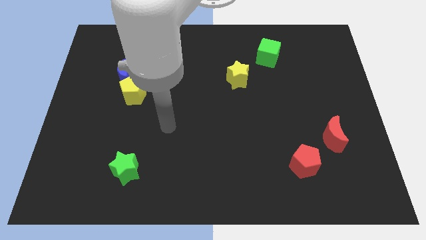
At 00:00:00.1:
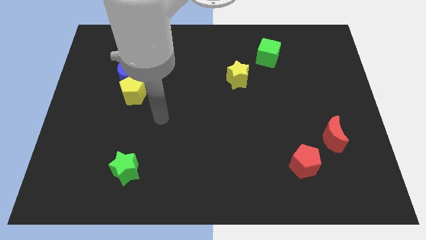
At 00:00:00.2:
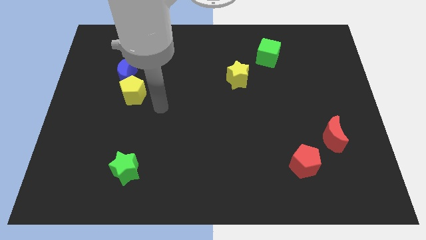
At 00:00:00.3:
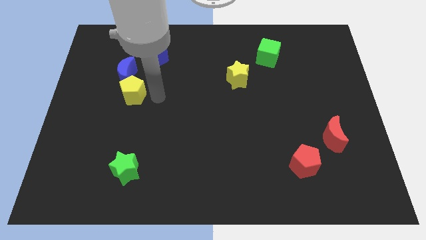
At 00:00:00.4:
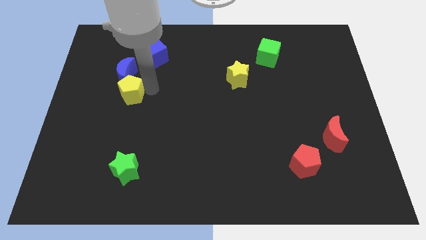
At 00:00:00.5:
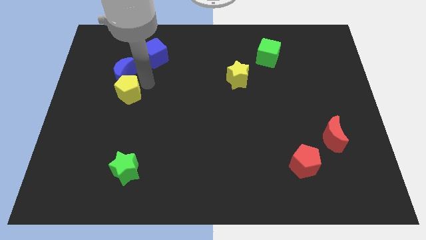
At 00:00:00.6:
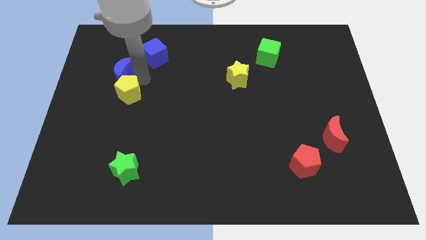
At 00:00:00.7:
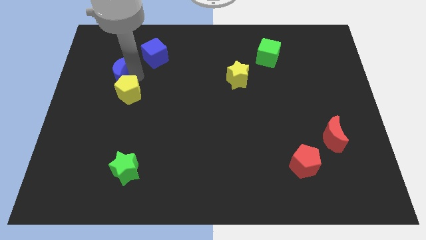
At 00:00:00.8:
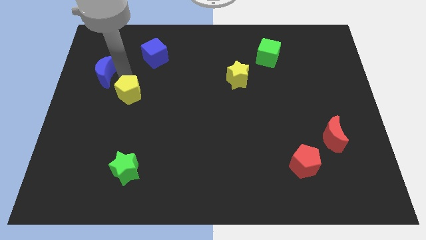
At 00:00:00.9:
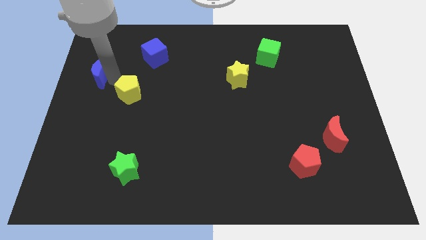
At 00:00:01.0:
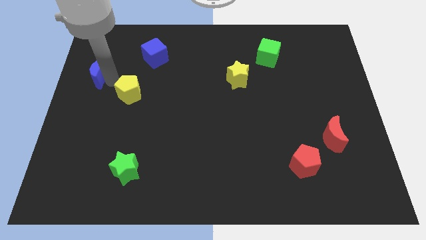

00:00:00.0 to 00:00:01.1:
separate the yellow pentagon from the blue moon

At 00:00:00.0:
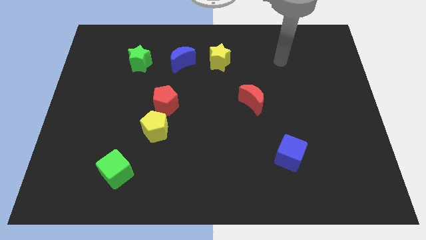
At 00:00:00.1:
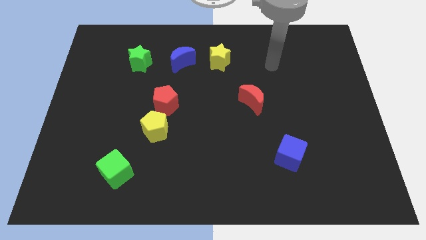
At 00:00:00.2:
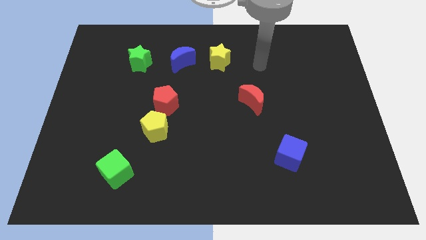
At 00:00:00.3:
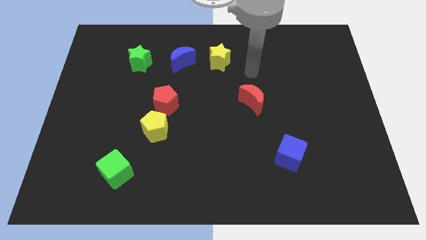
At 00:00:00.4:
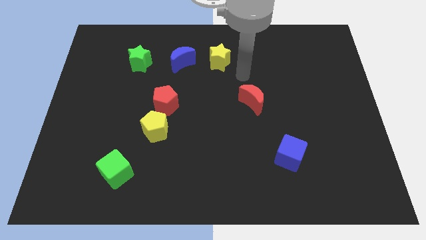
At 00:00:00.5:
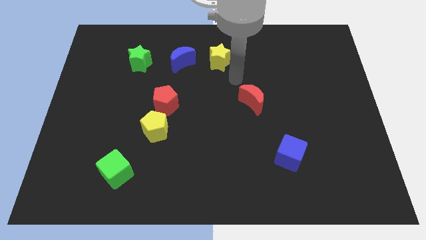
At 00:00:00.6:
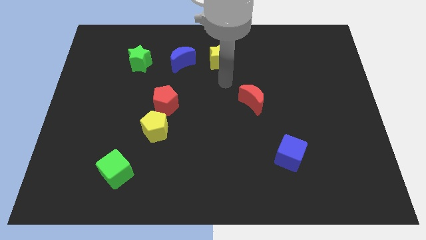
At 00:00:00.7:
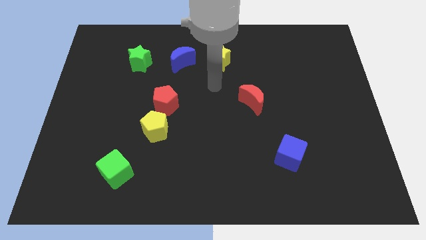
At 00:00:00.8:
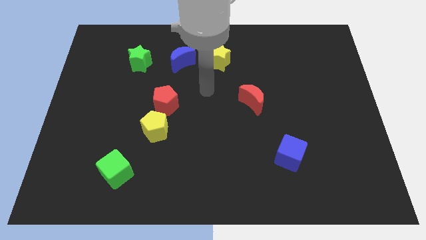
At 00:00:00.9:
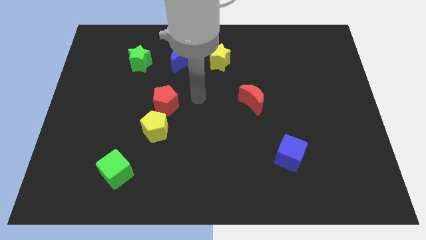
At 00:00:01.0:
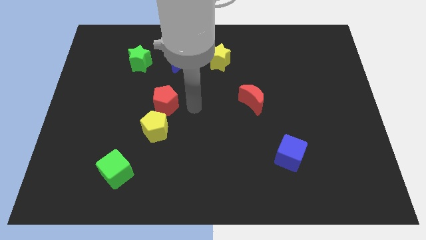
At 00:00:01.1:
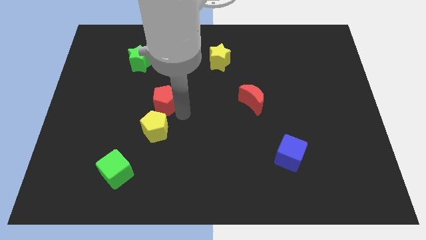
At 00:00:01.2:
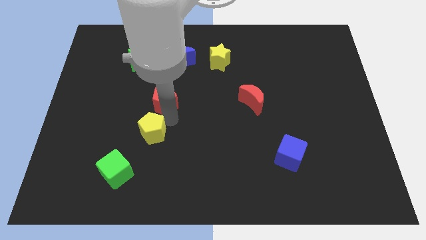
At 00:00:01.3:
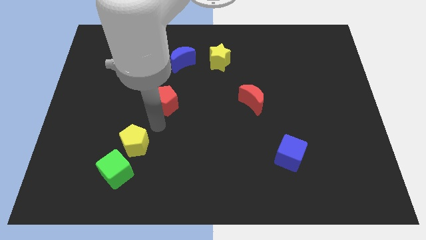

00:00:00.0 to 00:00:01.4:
separate the red pentagon from the yellow pentagon

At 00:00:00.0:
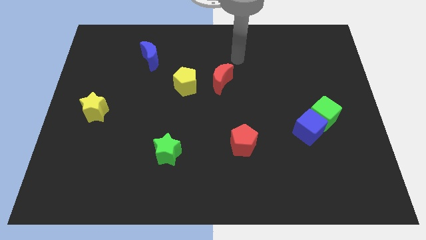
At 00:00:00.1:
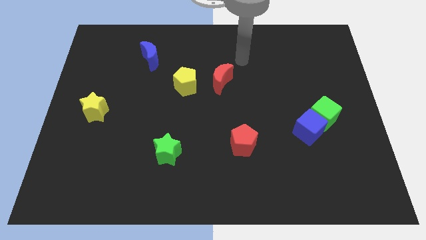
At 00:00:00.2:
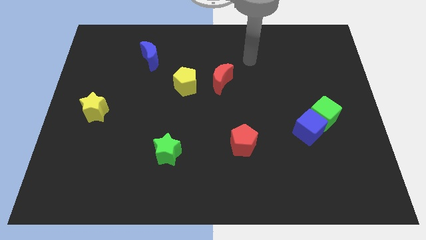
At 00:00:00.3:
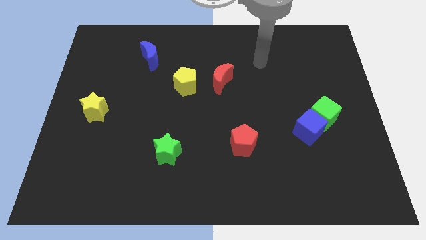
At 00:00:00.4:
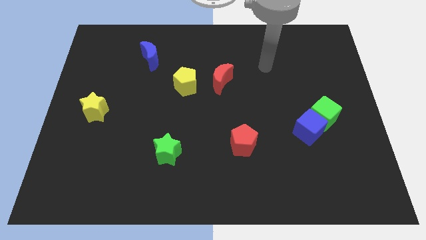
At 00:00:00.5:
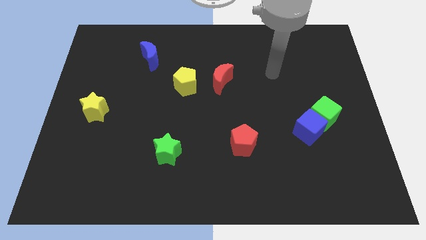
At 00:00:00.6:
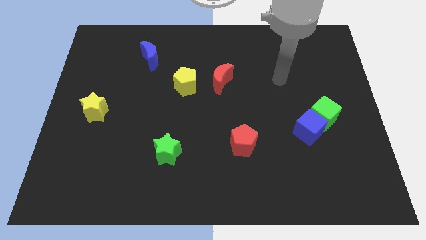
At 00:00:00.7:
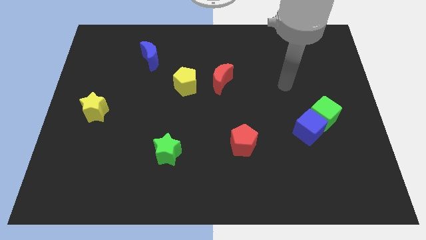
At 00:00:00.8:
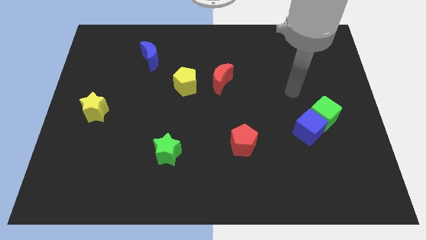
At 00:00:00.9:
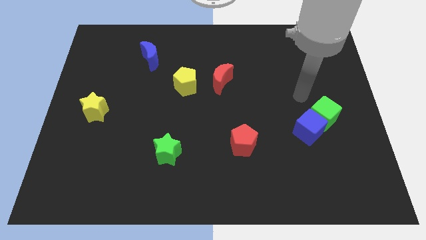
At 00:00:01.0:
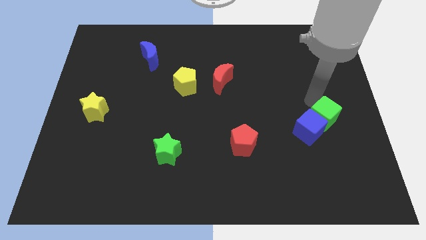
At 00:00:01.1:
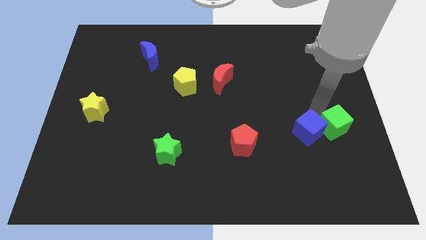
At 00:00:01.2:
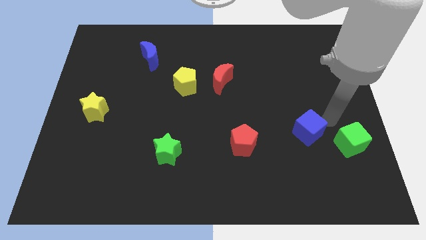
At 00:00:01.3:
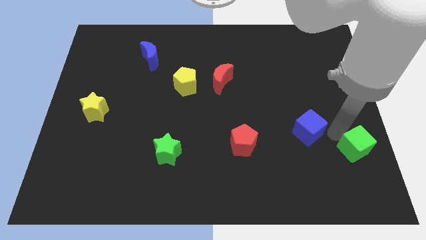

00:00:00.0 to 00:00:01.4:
pull the blue cube apart from the green cube

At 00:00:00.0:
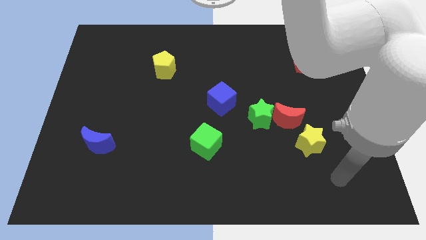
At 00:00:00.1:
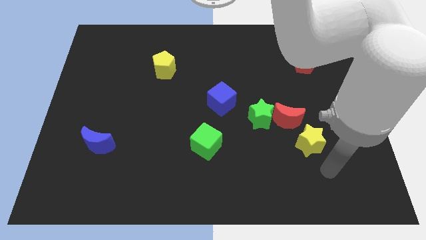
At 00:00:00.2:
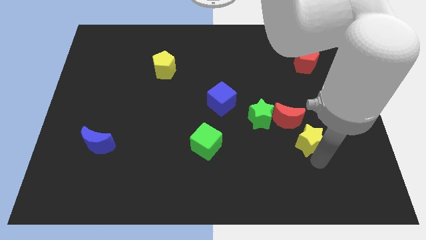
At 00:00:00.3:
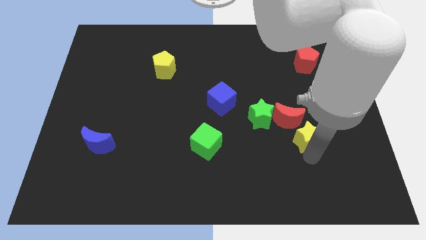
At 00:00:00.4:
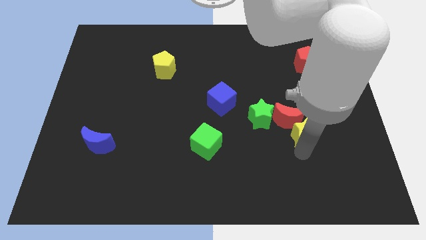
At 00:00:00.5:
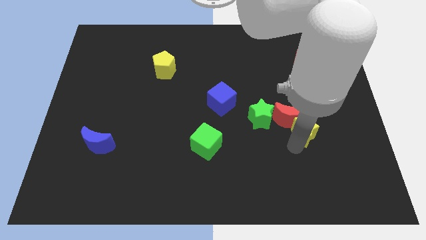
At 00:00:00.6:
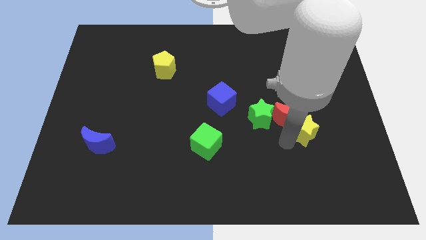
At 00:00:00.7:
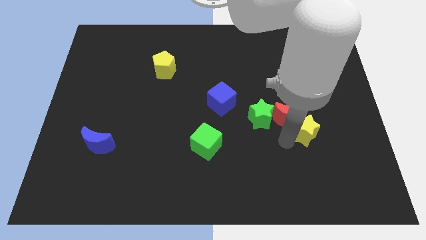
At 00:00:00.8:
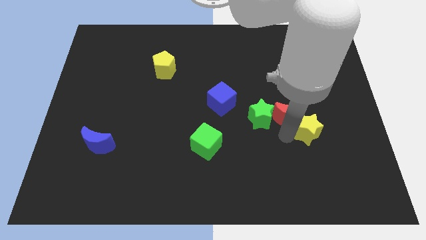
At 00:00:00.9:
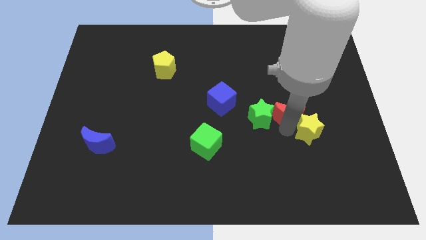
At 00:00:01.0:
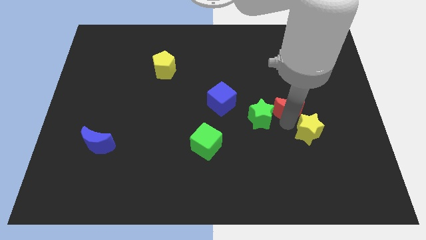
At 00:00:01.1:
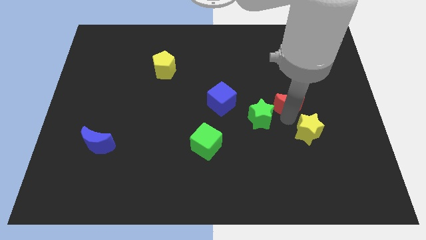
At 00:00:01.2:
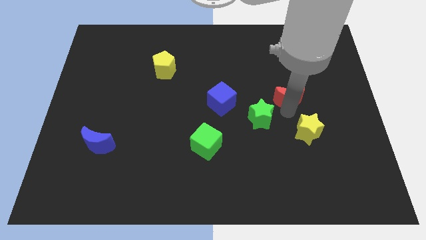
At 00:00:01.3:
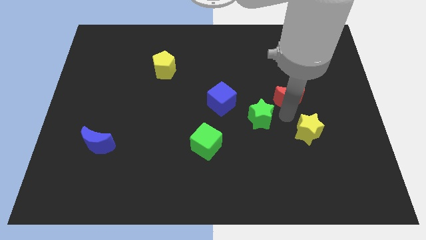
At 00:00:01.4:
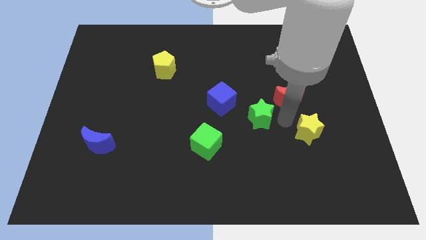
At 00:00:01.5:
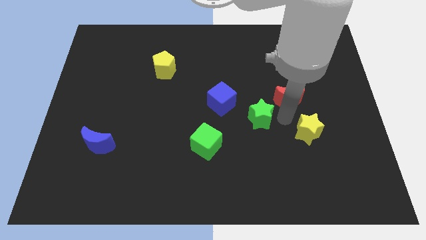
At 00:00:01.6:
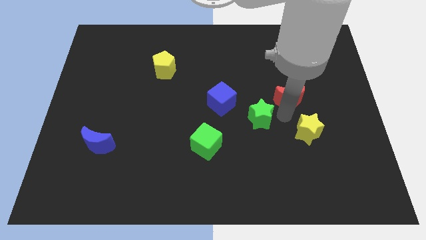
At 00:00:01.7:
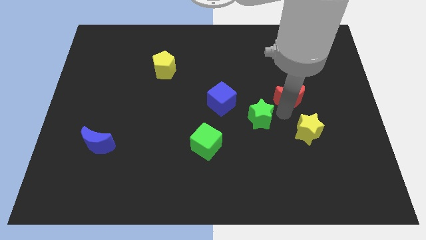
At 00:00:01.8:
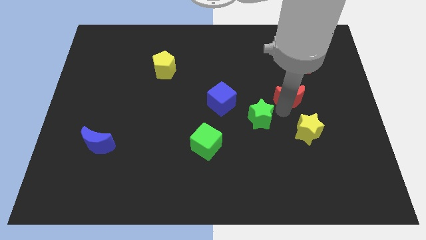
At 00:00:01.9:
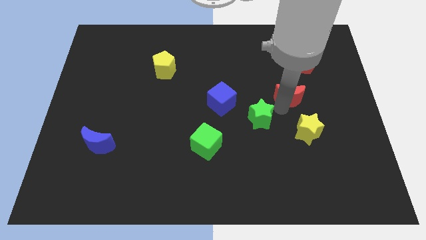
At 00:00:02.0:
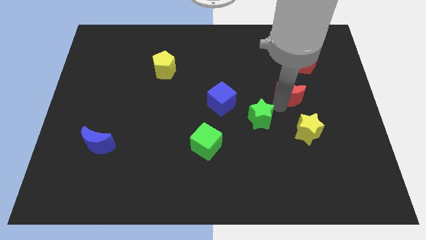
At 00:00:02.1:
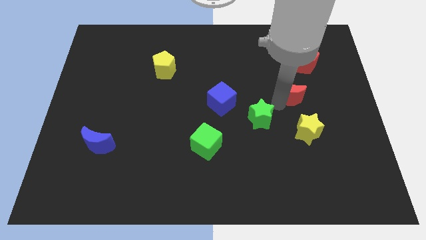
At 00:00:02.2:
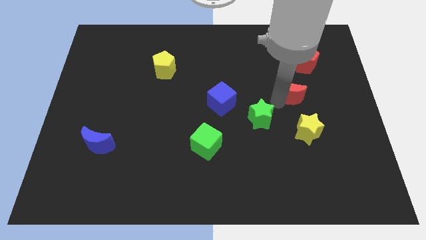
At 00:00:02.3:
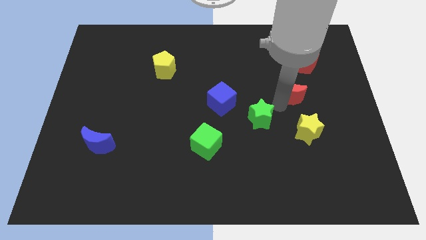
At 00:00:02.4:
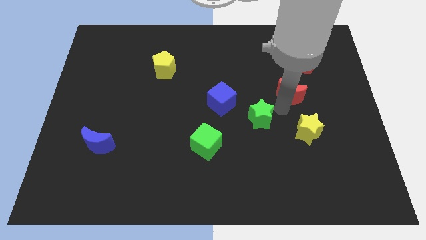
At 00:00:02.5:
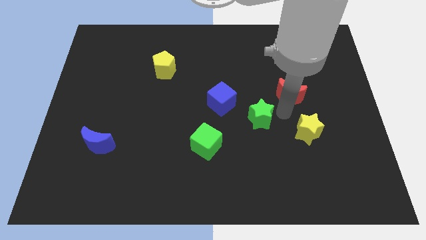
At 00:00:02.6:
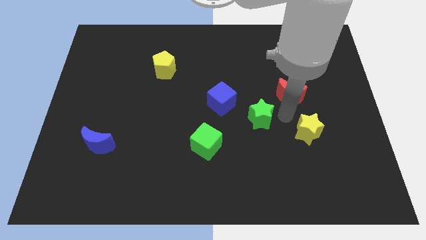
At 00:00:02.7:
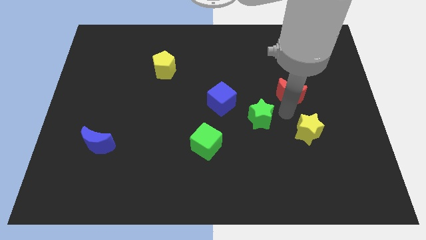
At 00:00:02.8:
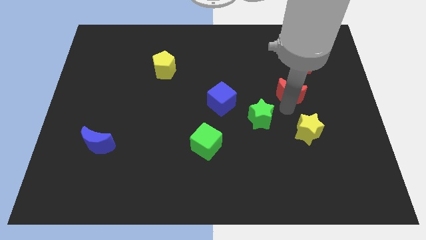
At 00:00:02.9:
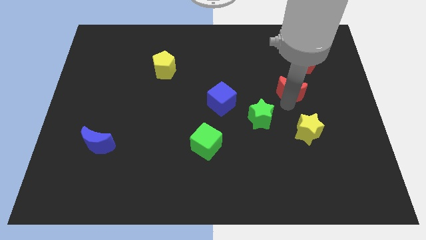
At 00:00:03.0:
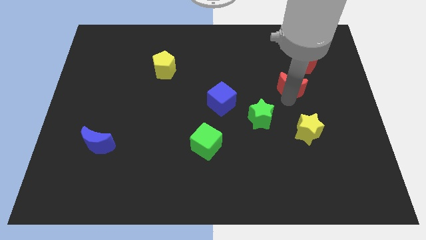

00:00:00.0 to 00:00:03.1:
pull the red moon apart from the green star and yellow star

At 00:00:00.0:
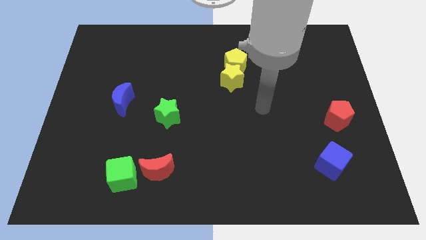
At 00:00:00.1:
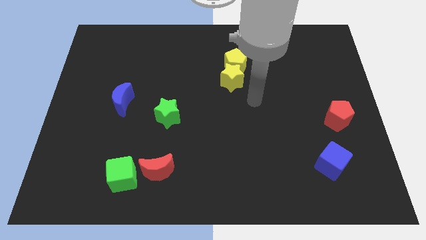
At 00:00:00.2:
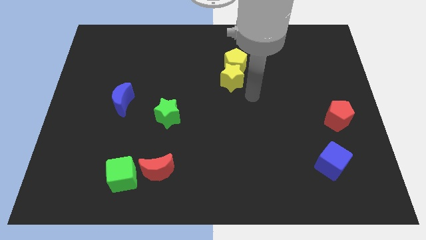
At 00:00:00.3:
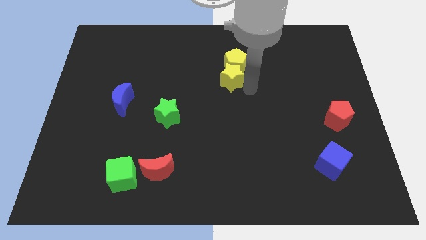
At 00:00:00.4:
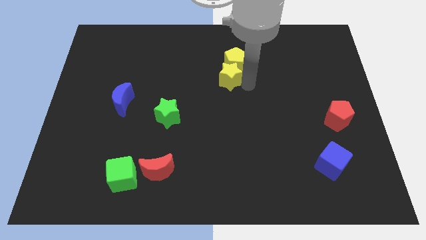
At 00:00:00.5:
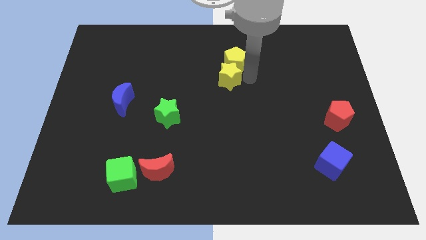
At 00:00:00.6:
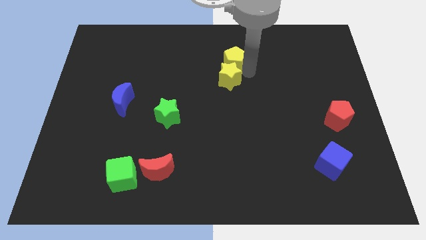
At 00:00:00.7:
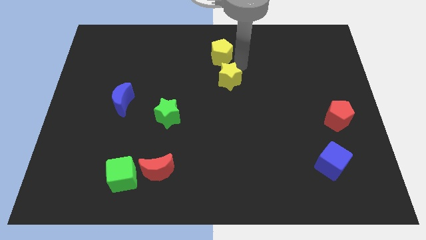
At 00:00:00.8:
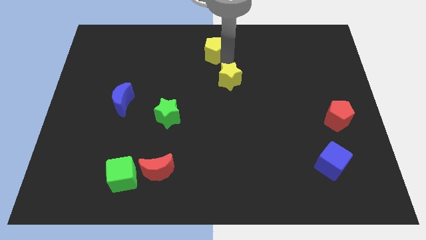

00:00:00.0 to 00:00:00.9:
move the yellow star away from the yellow pentagon

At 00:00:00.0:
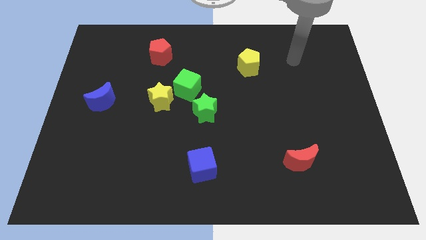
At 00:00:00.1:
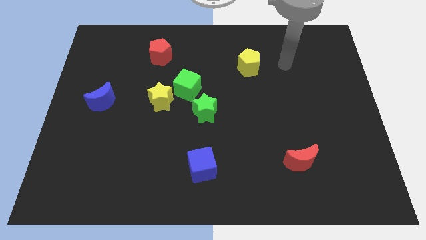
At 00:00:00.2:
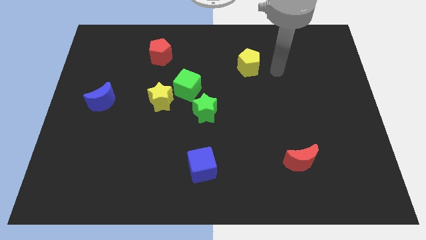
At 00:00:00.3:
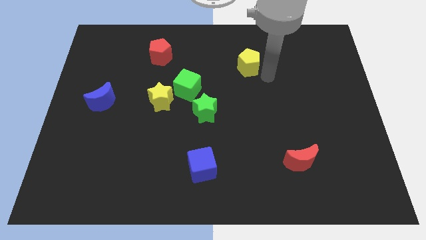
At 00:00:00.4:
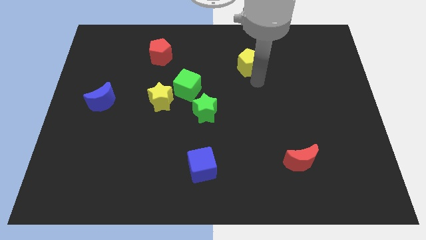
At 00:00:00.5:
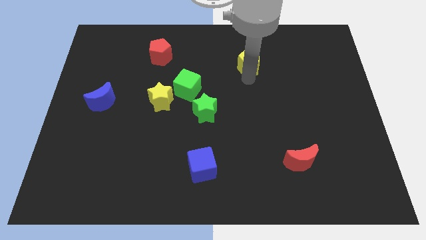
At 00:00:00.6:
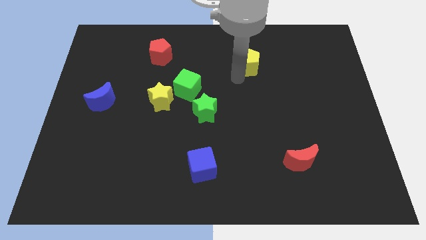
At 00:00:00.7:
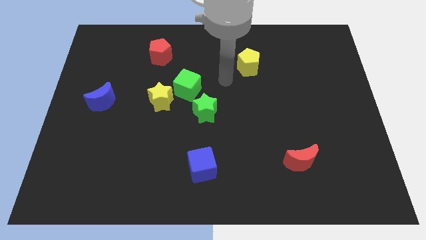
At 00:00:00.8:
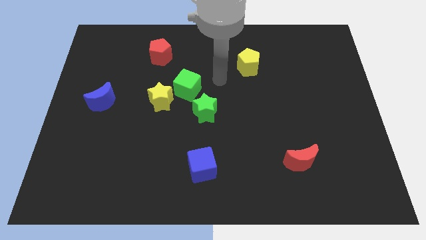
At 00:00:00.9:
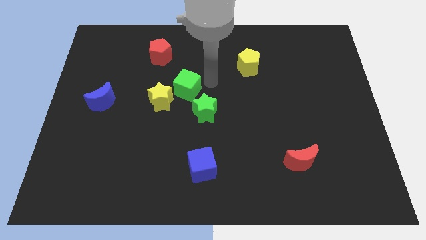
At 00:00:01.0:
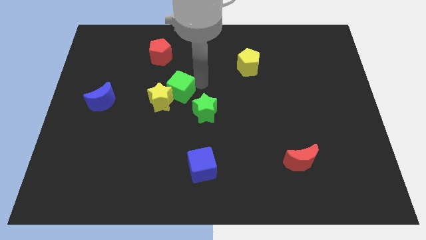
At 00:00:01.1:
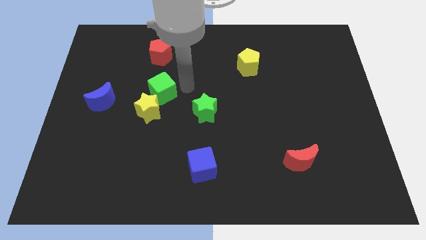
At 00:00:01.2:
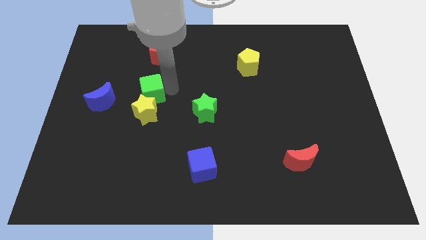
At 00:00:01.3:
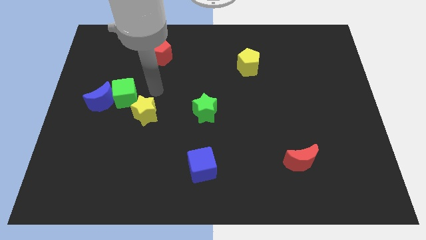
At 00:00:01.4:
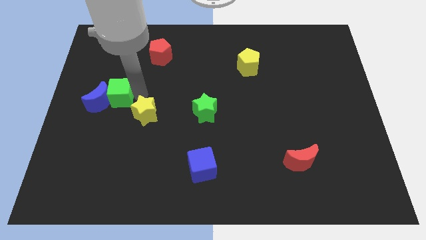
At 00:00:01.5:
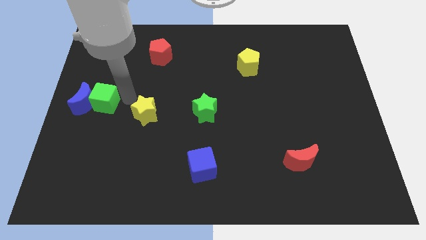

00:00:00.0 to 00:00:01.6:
move the yellow star away from the green cube
